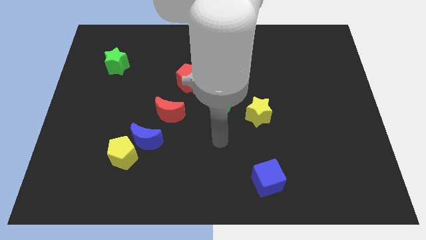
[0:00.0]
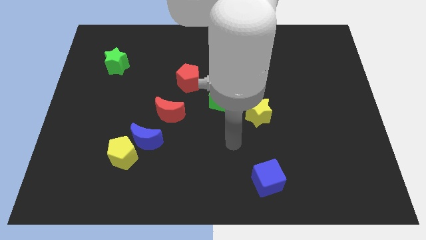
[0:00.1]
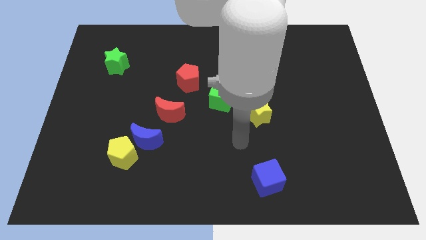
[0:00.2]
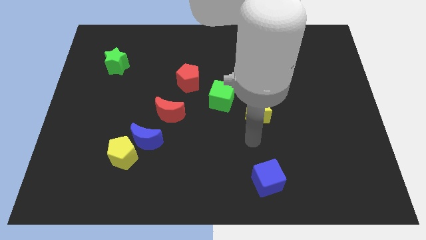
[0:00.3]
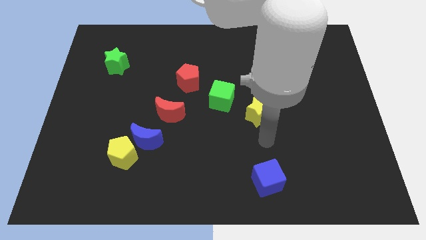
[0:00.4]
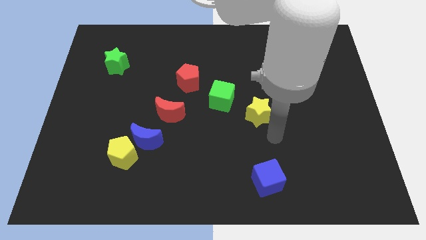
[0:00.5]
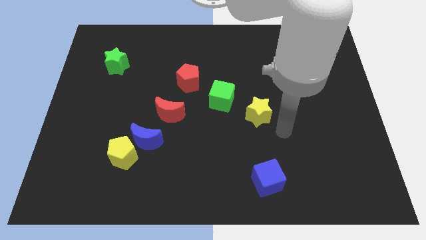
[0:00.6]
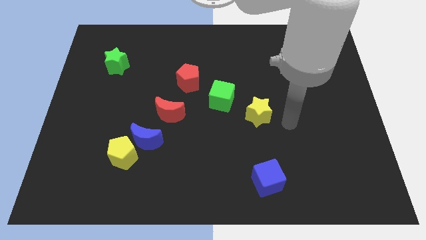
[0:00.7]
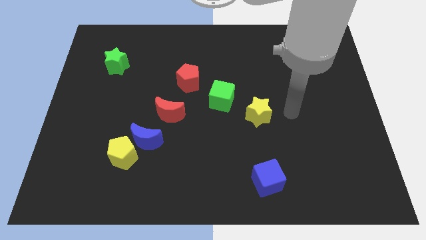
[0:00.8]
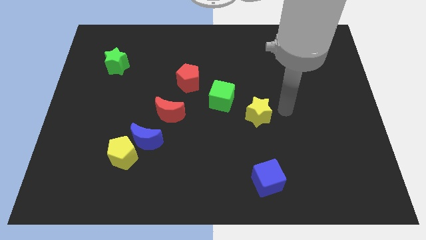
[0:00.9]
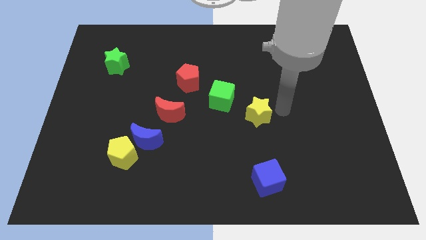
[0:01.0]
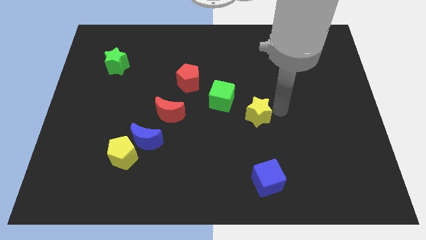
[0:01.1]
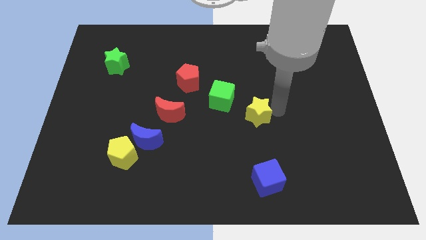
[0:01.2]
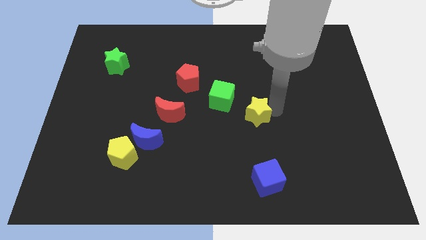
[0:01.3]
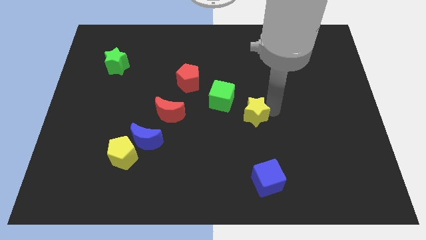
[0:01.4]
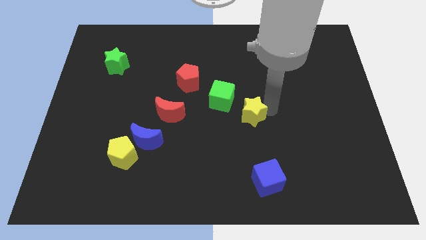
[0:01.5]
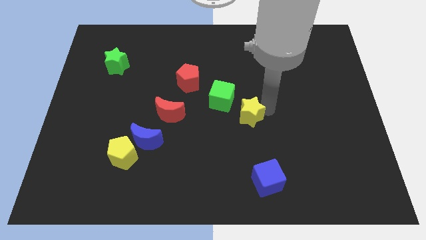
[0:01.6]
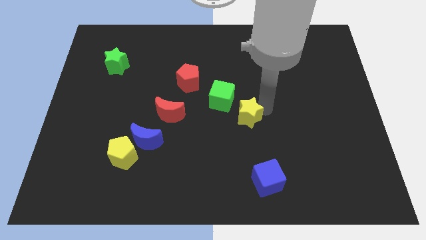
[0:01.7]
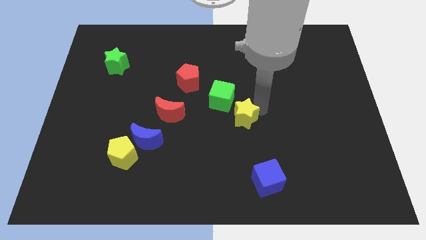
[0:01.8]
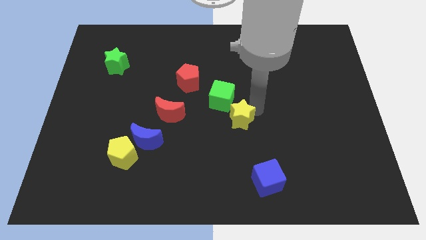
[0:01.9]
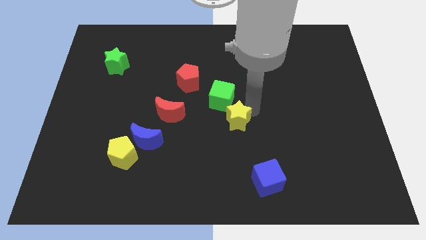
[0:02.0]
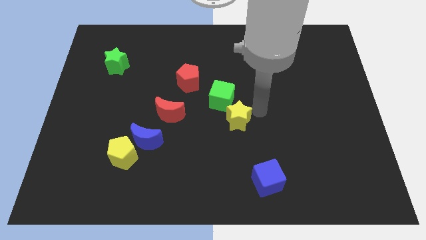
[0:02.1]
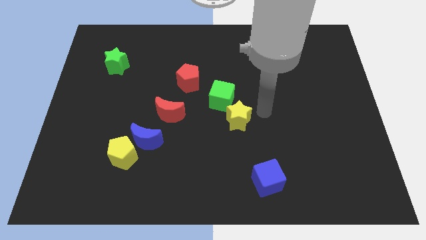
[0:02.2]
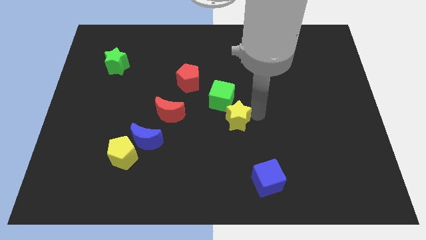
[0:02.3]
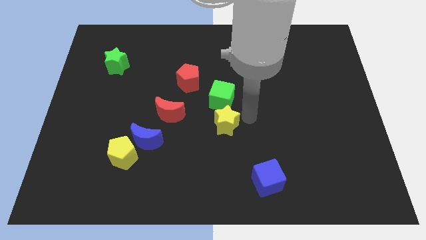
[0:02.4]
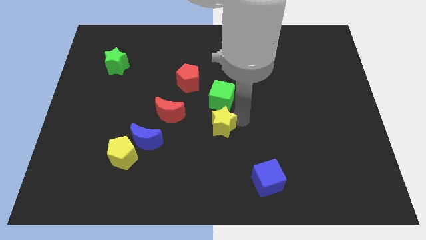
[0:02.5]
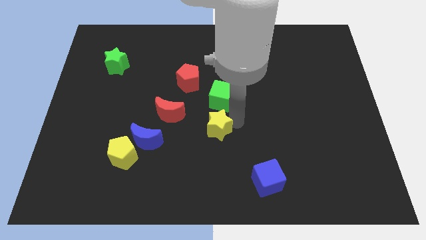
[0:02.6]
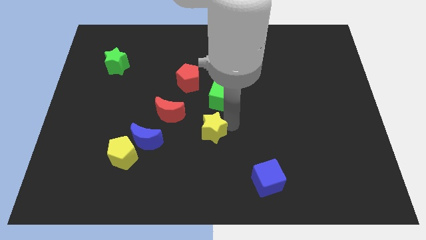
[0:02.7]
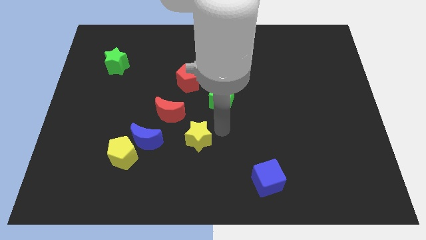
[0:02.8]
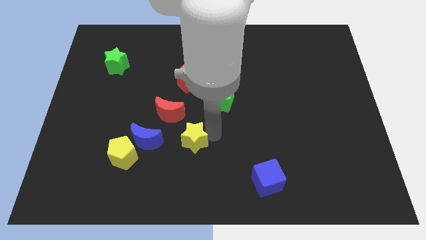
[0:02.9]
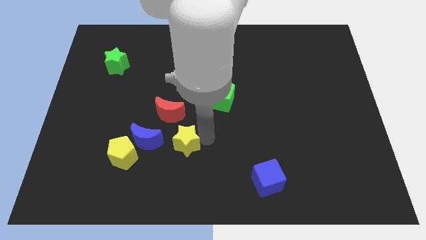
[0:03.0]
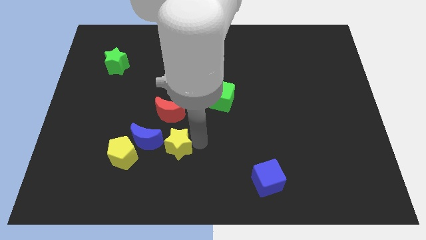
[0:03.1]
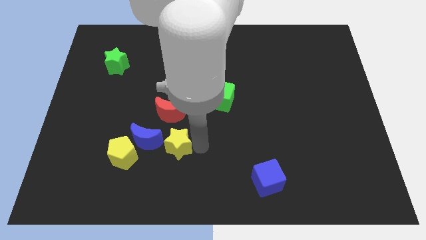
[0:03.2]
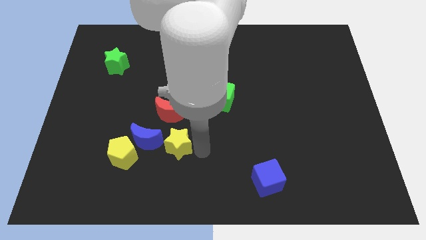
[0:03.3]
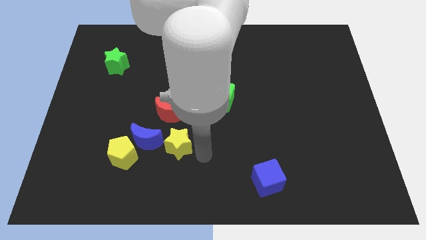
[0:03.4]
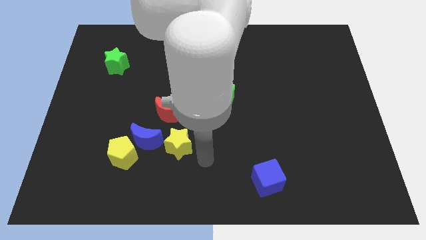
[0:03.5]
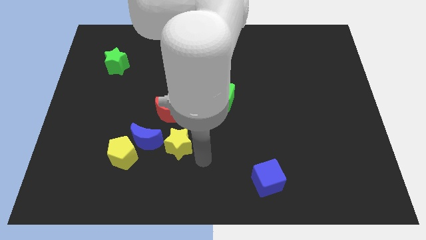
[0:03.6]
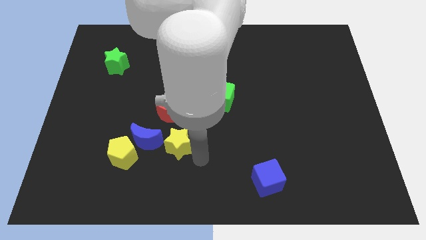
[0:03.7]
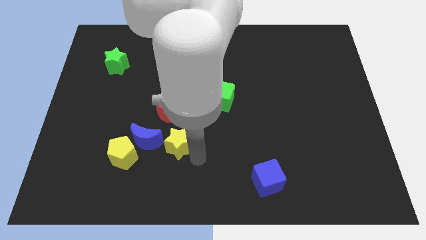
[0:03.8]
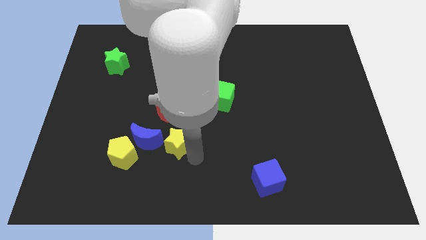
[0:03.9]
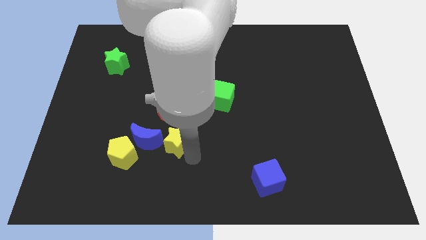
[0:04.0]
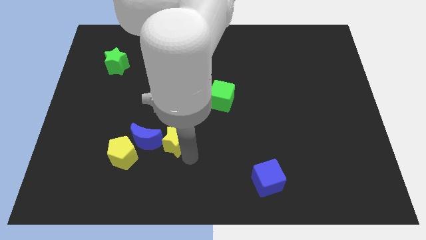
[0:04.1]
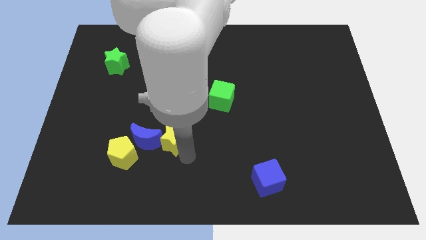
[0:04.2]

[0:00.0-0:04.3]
push the yellow star to the blue moon

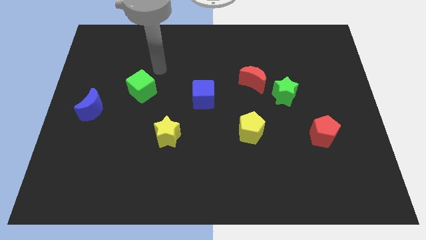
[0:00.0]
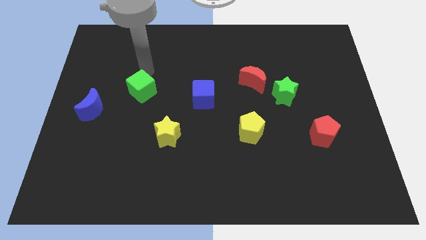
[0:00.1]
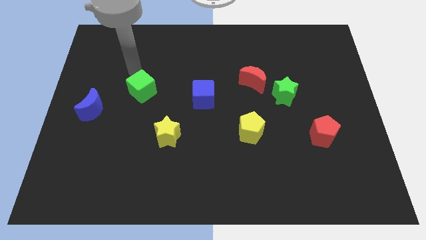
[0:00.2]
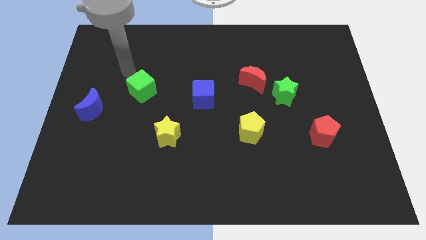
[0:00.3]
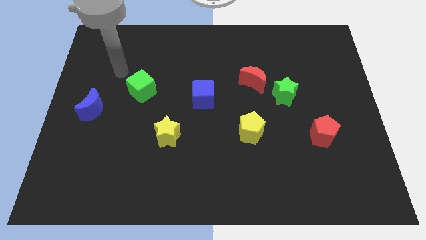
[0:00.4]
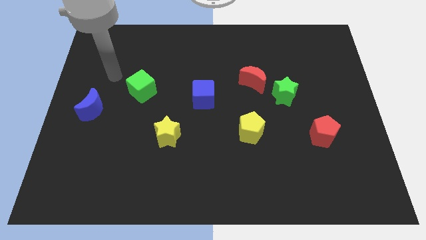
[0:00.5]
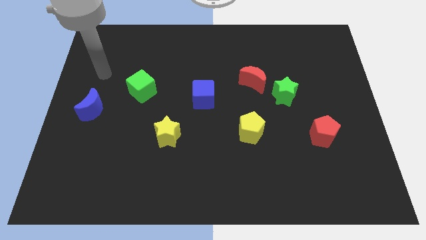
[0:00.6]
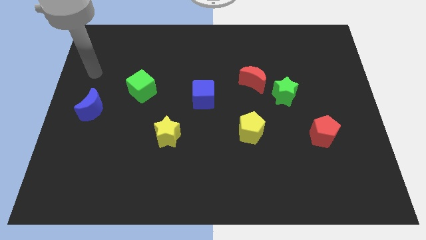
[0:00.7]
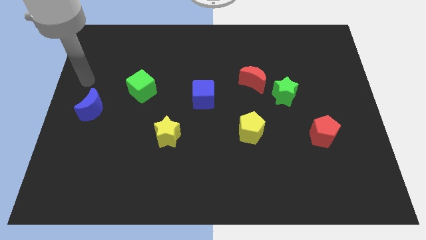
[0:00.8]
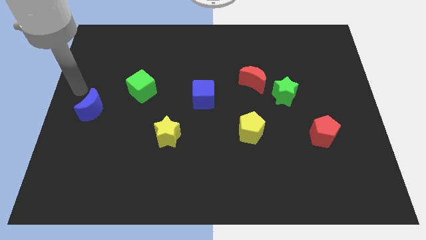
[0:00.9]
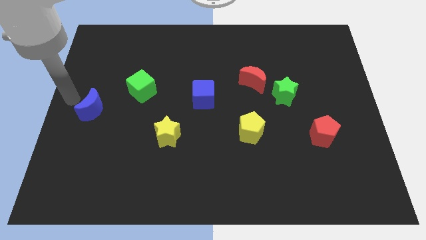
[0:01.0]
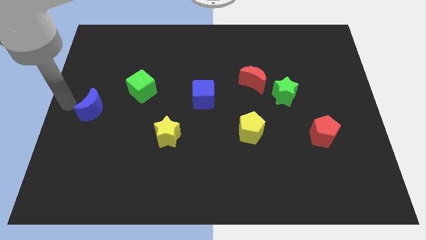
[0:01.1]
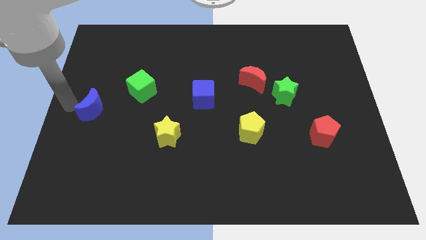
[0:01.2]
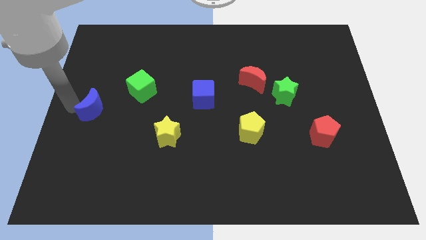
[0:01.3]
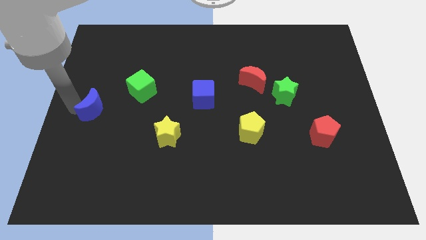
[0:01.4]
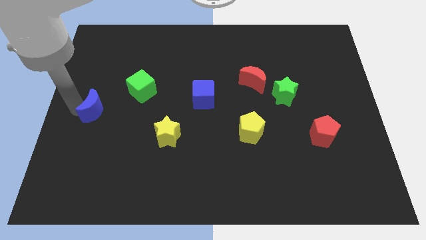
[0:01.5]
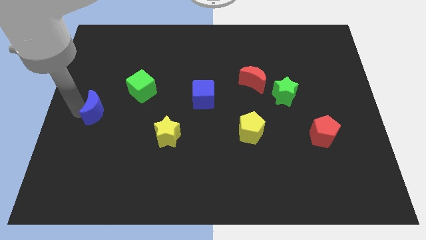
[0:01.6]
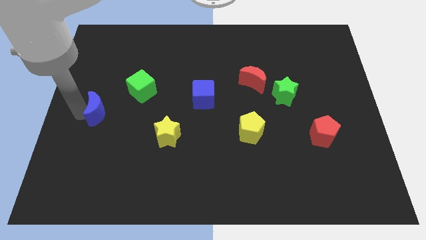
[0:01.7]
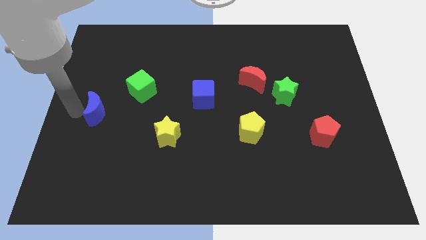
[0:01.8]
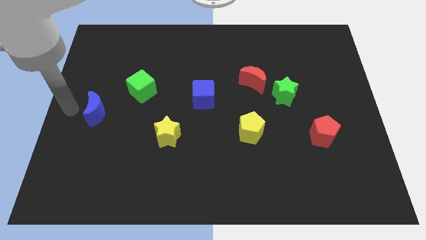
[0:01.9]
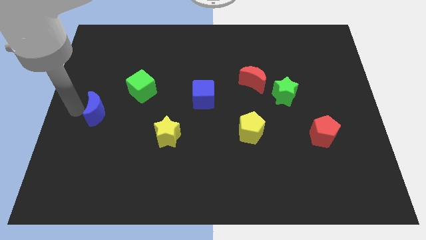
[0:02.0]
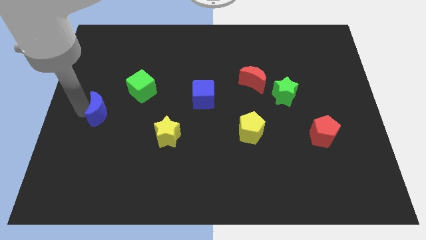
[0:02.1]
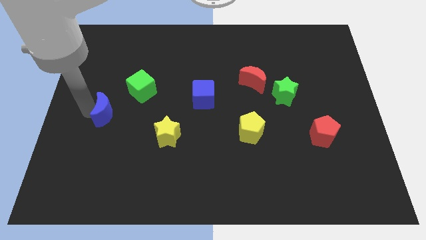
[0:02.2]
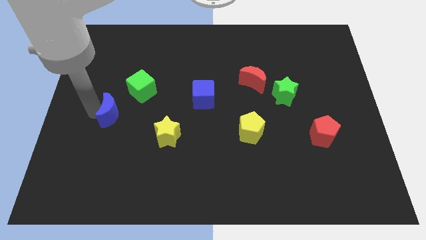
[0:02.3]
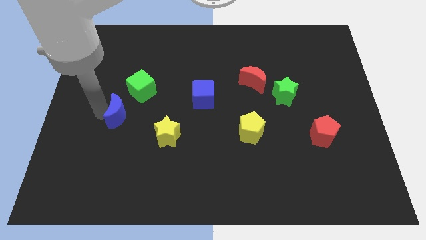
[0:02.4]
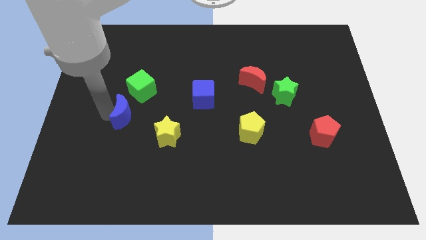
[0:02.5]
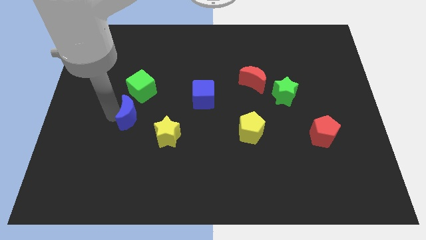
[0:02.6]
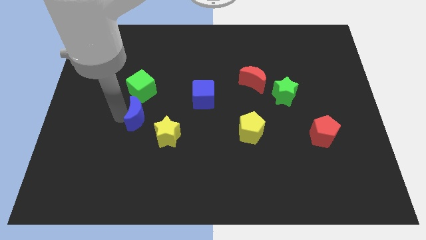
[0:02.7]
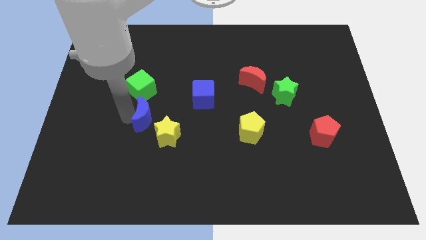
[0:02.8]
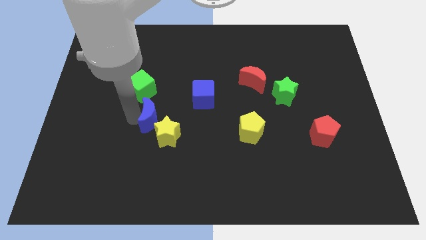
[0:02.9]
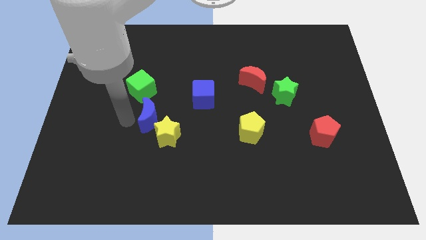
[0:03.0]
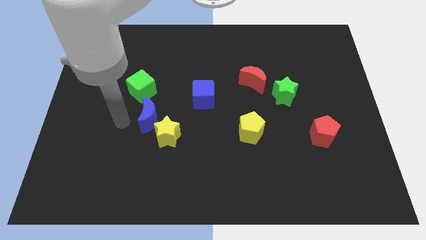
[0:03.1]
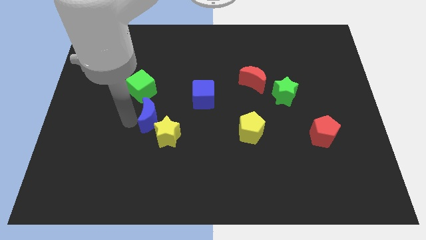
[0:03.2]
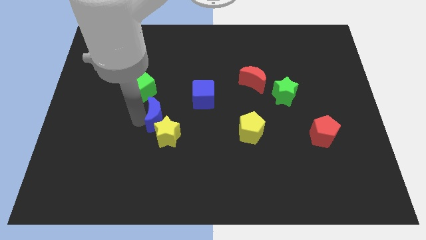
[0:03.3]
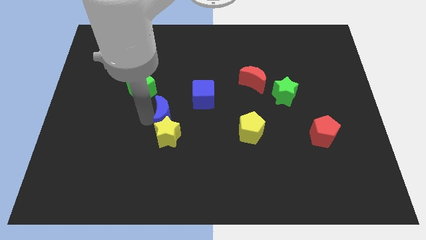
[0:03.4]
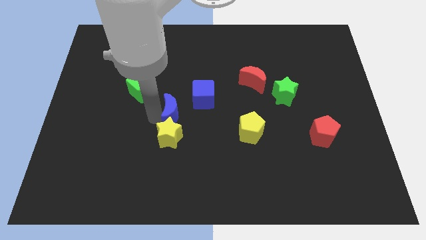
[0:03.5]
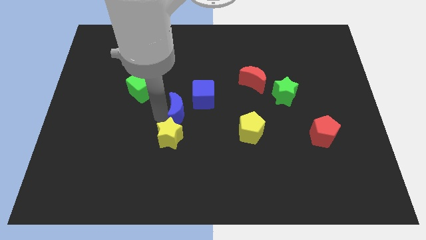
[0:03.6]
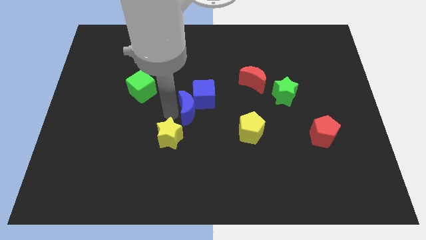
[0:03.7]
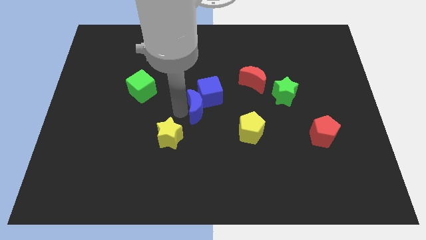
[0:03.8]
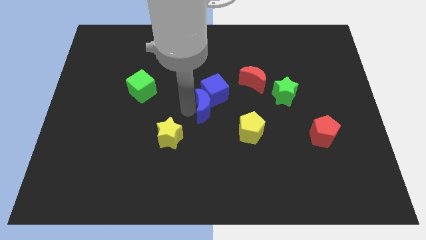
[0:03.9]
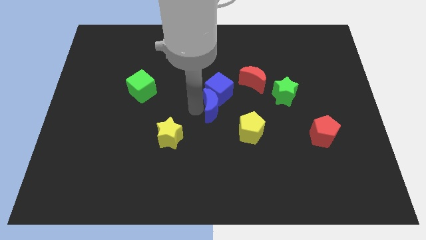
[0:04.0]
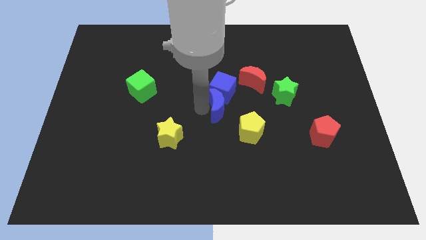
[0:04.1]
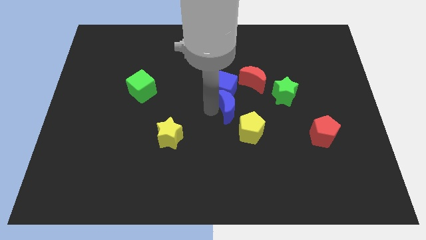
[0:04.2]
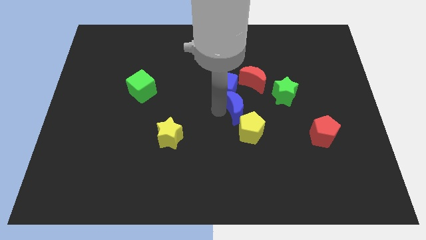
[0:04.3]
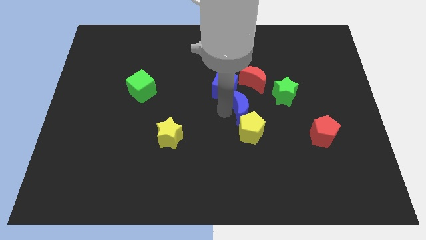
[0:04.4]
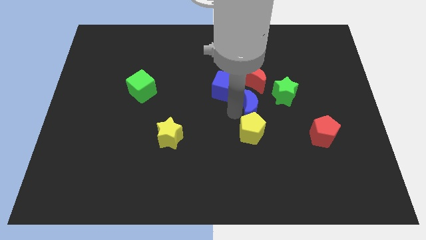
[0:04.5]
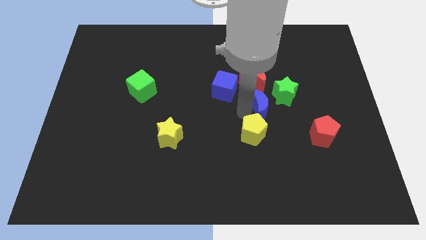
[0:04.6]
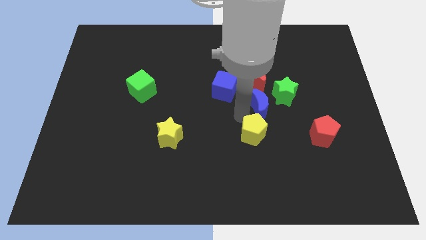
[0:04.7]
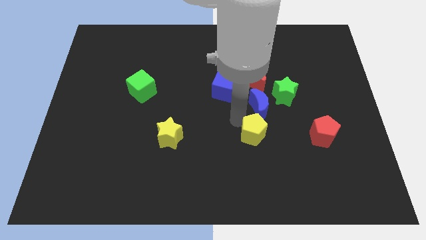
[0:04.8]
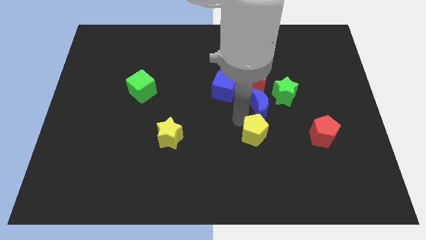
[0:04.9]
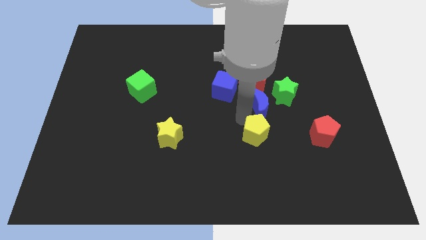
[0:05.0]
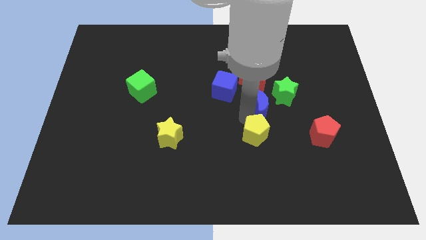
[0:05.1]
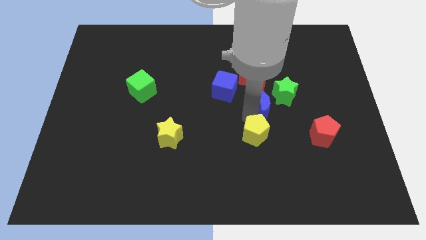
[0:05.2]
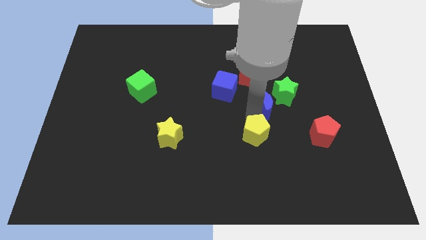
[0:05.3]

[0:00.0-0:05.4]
slide the blue moon to the green star
